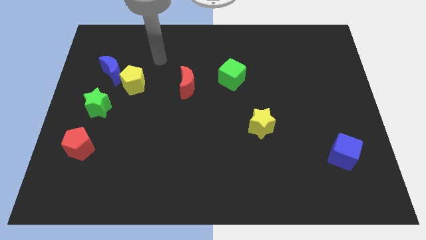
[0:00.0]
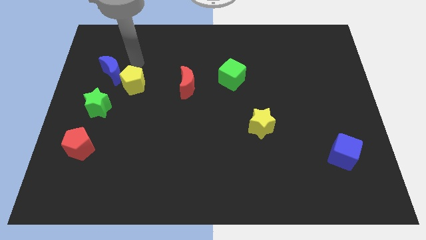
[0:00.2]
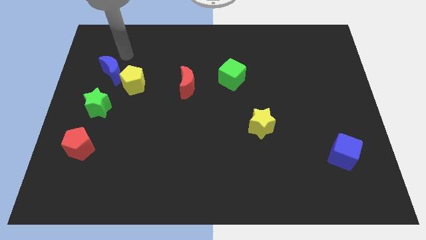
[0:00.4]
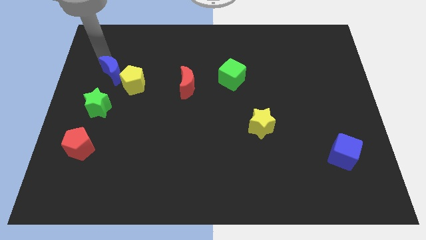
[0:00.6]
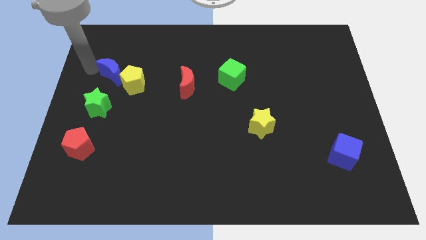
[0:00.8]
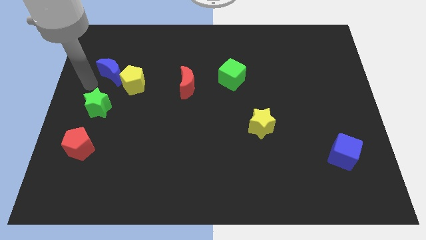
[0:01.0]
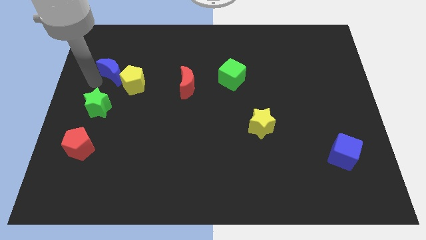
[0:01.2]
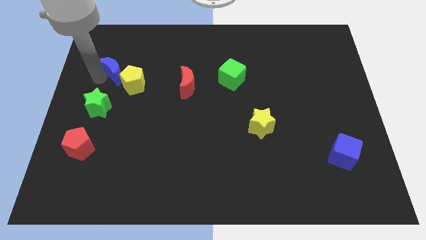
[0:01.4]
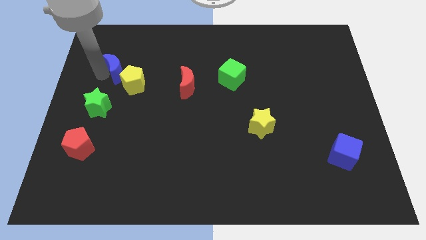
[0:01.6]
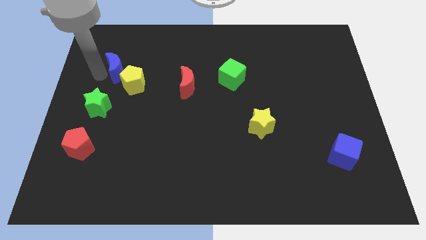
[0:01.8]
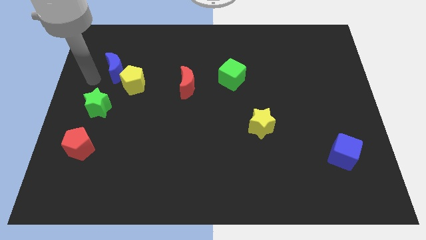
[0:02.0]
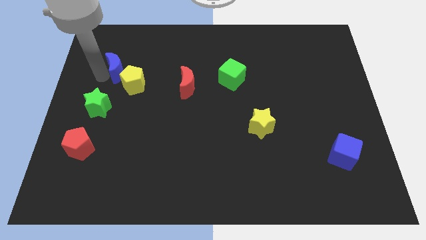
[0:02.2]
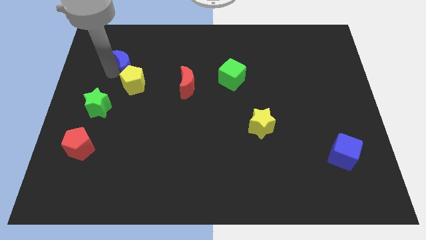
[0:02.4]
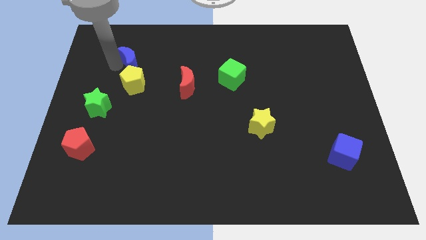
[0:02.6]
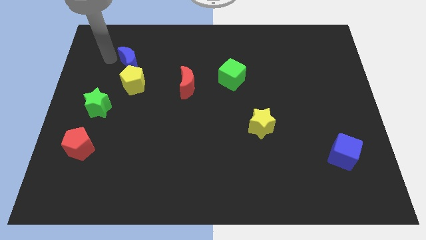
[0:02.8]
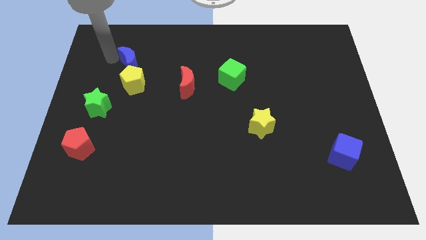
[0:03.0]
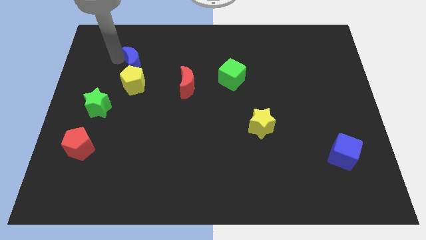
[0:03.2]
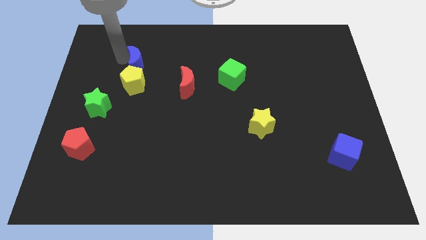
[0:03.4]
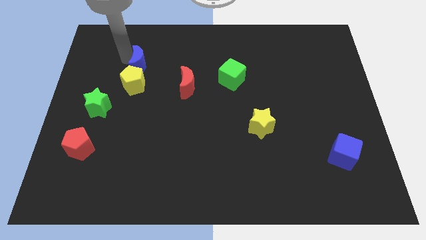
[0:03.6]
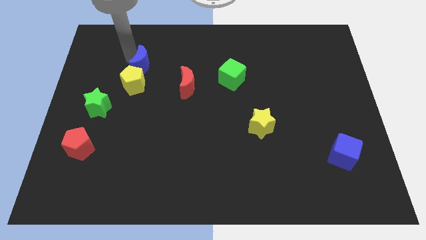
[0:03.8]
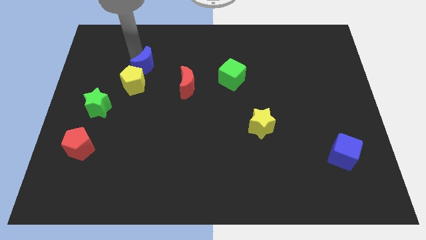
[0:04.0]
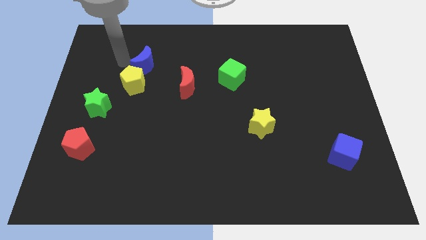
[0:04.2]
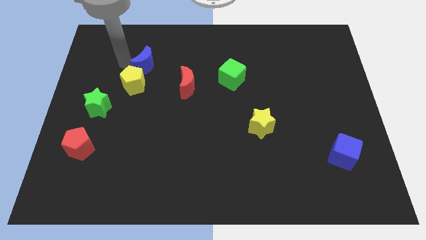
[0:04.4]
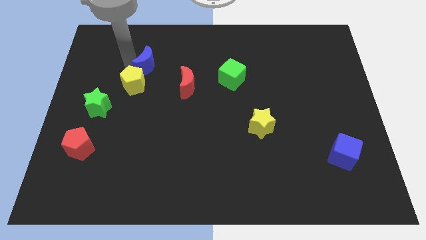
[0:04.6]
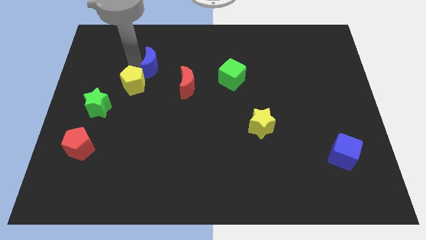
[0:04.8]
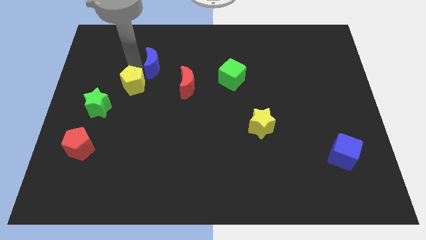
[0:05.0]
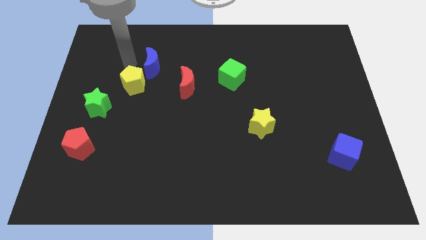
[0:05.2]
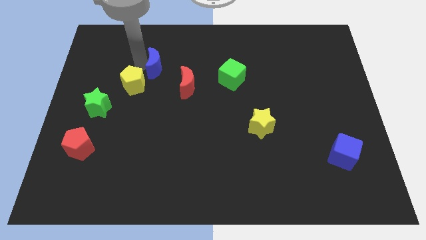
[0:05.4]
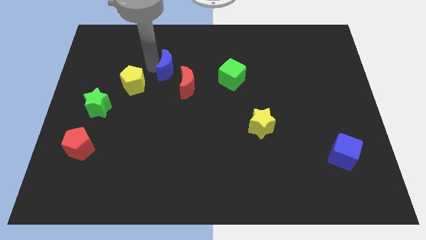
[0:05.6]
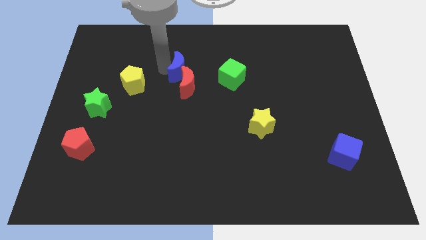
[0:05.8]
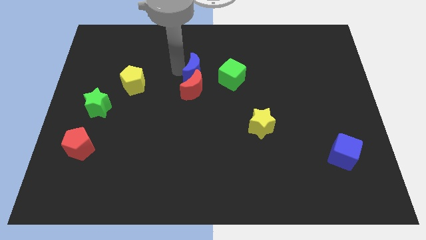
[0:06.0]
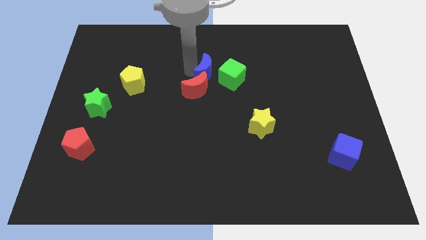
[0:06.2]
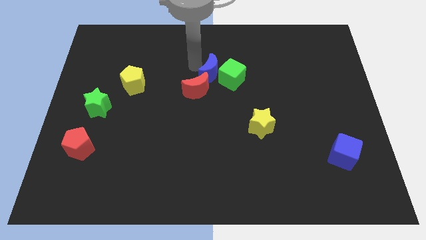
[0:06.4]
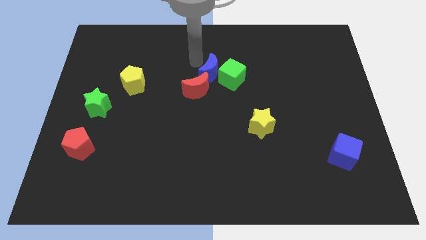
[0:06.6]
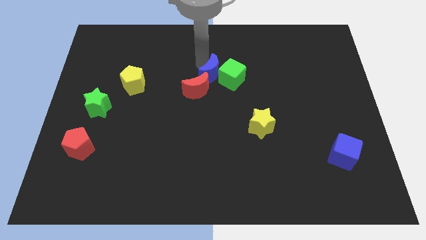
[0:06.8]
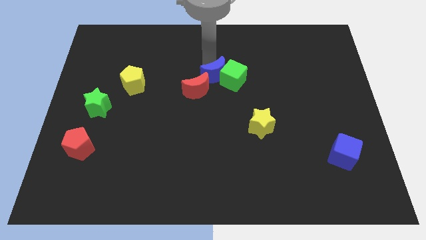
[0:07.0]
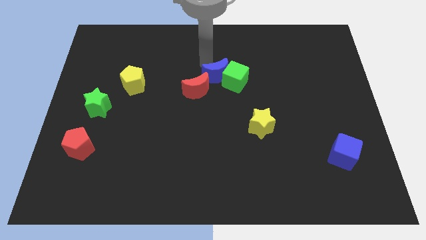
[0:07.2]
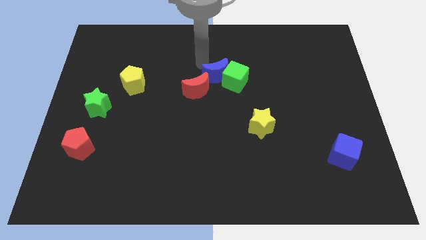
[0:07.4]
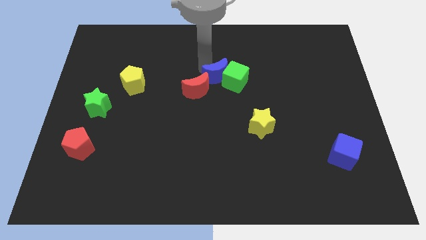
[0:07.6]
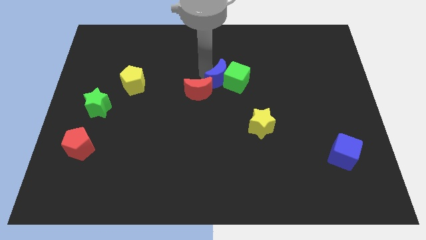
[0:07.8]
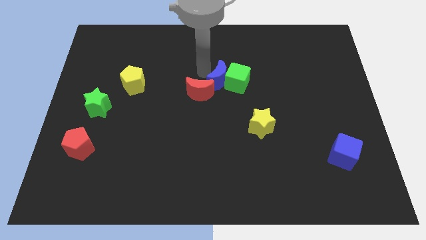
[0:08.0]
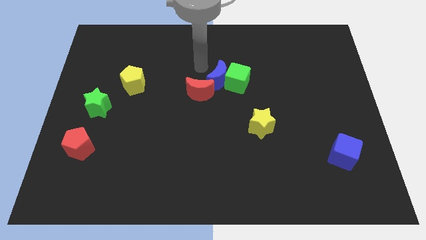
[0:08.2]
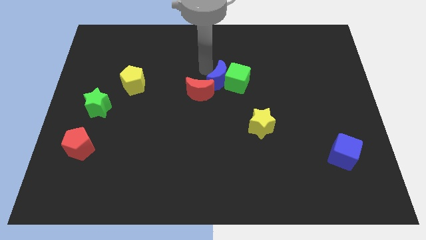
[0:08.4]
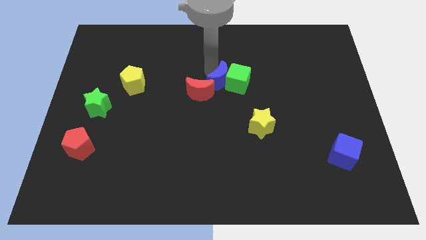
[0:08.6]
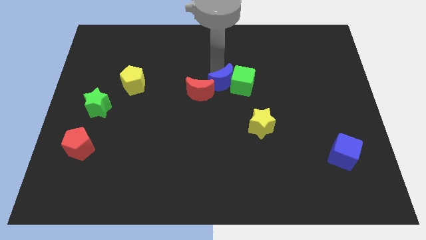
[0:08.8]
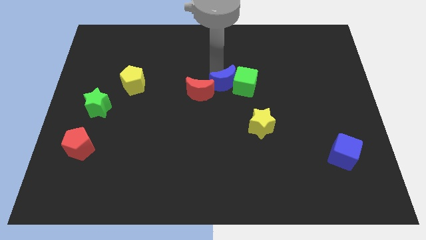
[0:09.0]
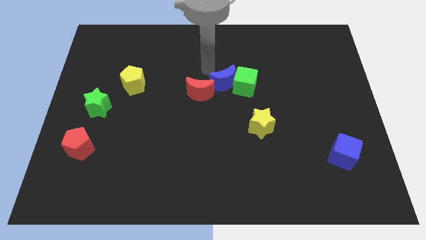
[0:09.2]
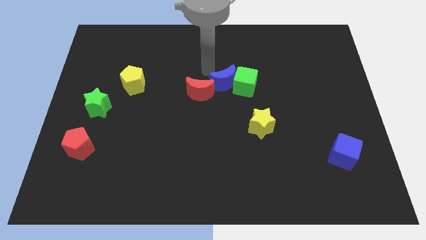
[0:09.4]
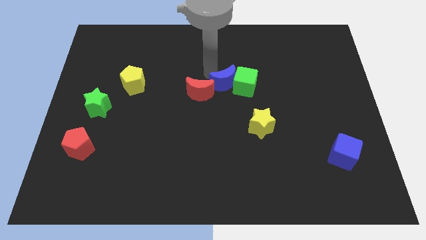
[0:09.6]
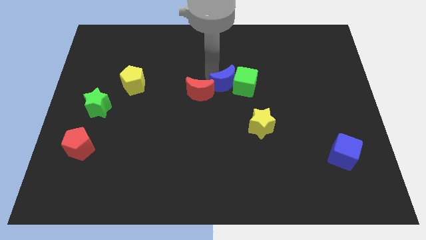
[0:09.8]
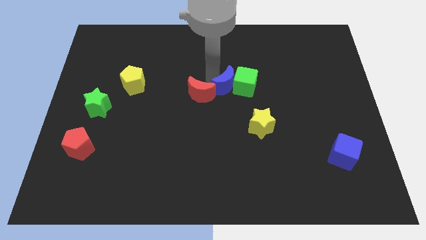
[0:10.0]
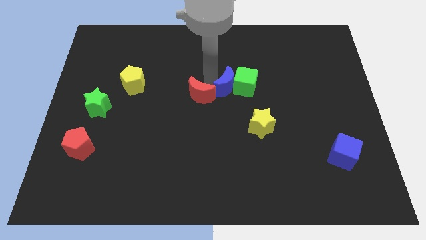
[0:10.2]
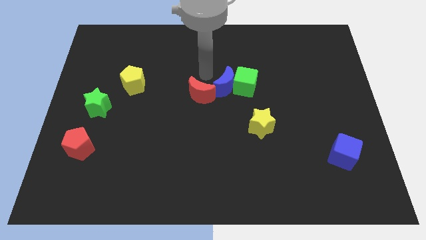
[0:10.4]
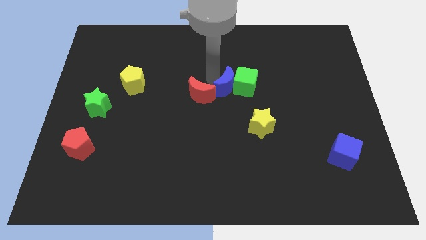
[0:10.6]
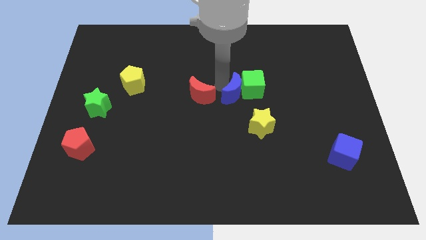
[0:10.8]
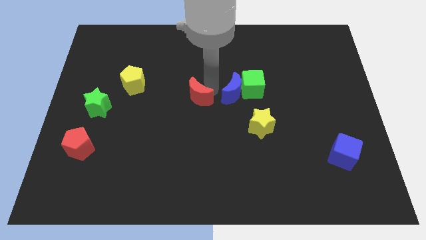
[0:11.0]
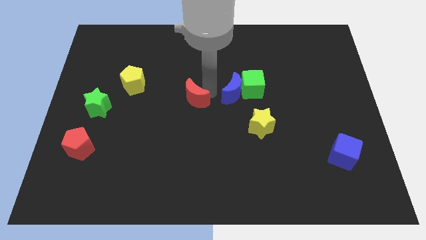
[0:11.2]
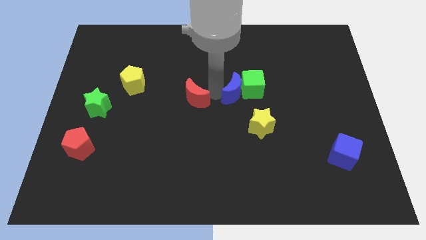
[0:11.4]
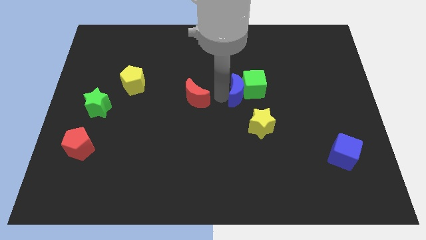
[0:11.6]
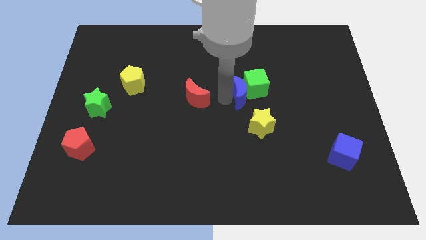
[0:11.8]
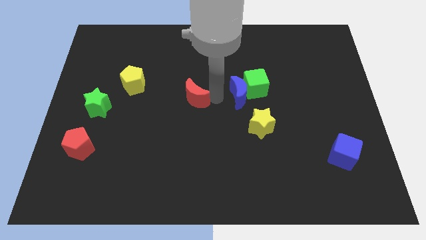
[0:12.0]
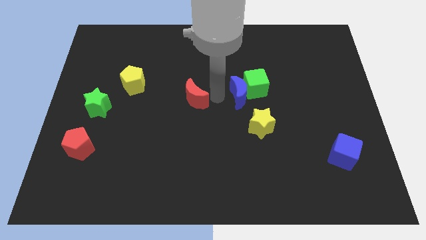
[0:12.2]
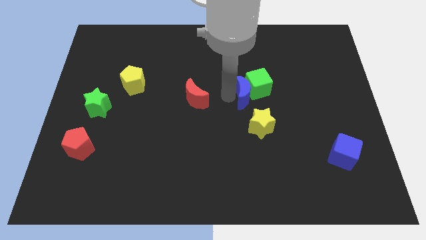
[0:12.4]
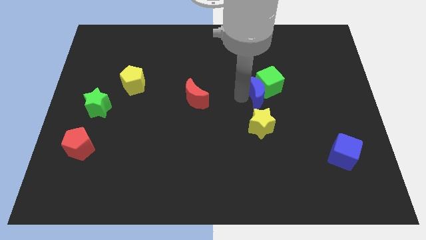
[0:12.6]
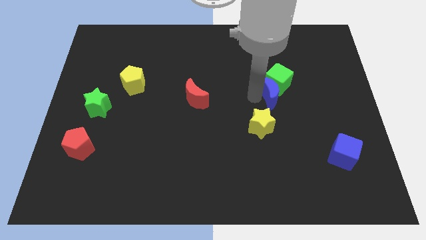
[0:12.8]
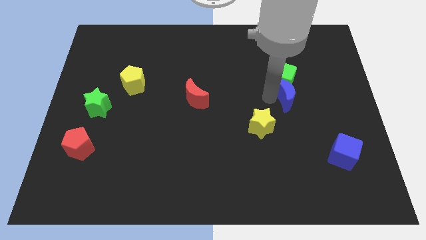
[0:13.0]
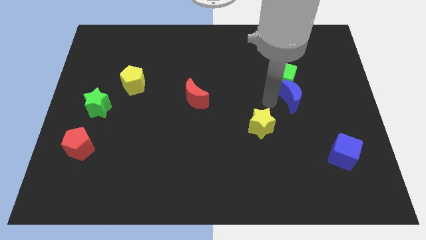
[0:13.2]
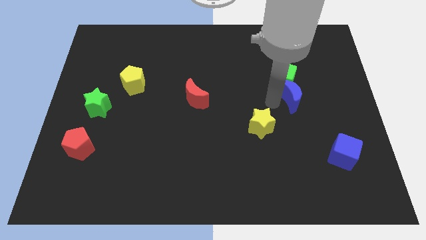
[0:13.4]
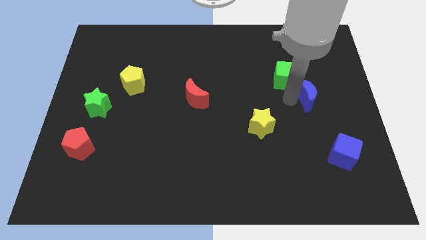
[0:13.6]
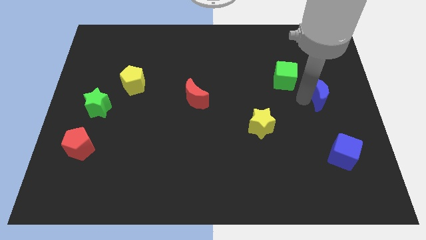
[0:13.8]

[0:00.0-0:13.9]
slide the blue moon to the right side
